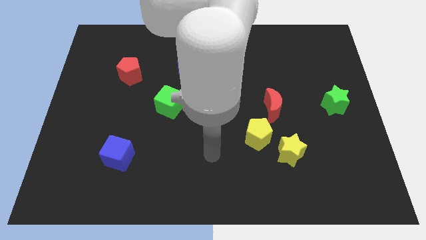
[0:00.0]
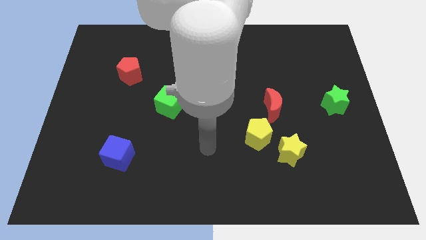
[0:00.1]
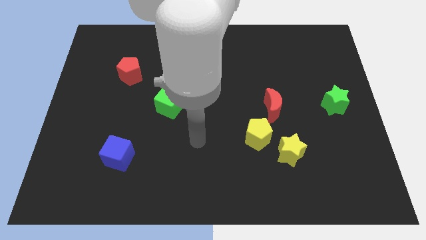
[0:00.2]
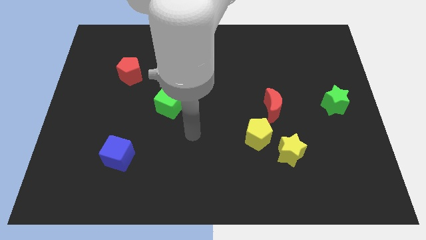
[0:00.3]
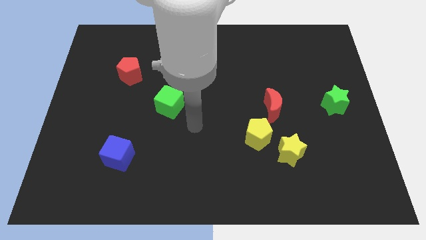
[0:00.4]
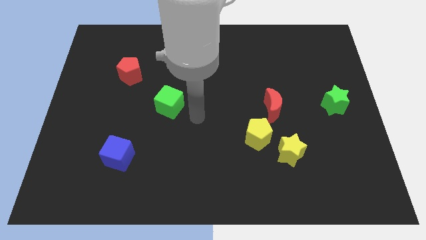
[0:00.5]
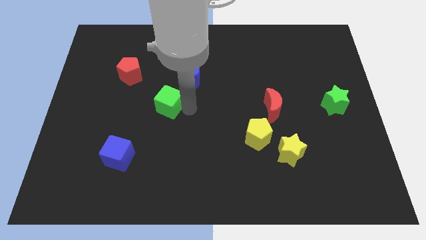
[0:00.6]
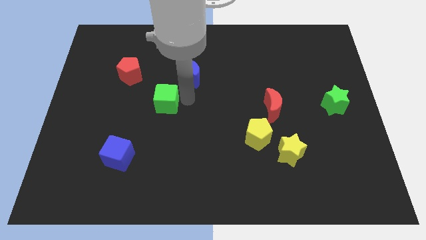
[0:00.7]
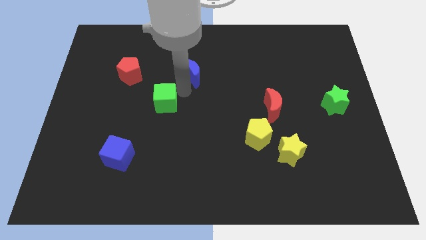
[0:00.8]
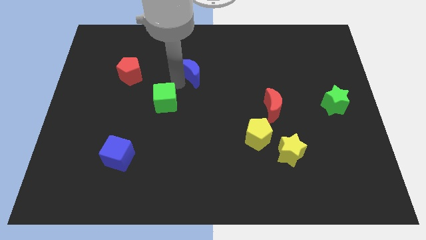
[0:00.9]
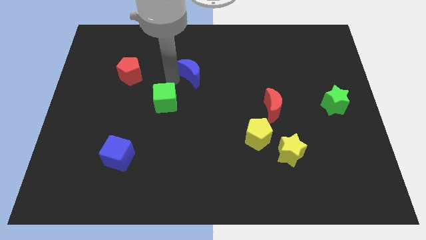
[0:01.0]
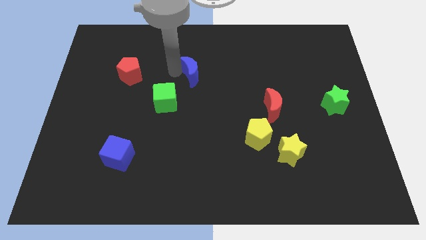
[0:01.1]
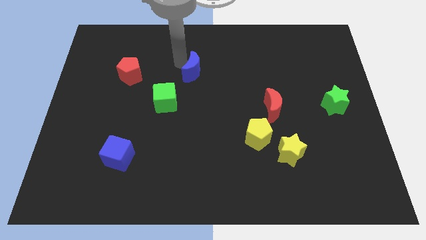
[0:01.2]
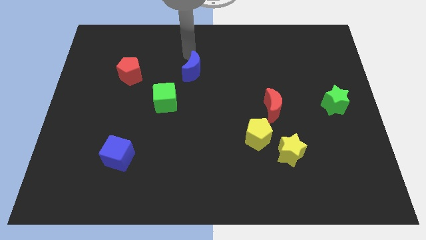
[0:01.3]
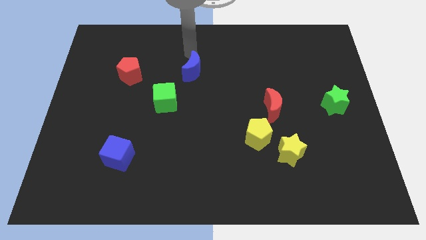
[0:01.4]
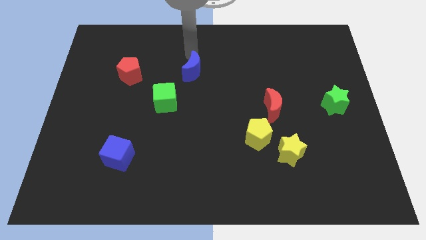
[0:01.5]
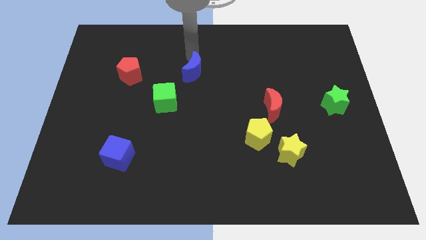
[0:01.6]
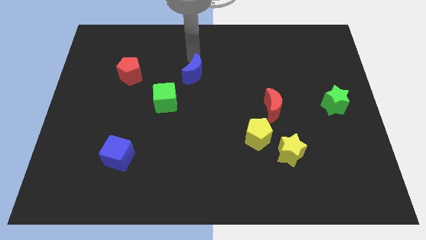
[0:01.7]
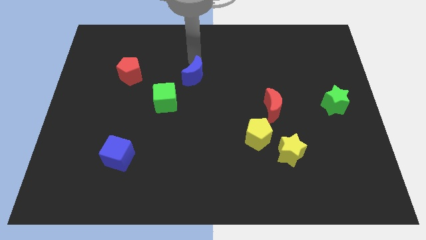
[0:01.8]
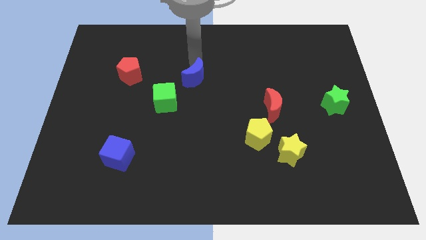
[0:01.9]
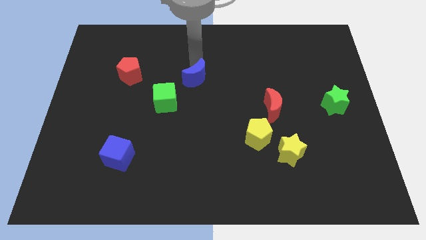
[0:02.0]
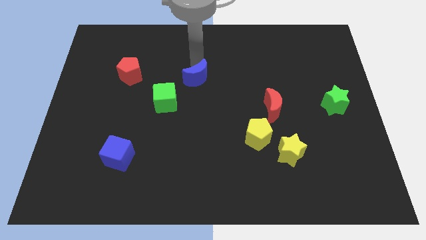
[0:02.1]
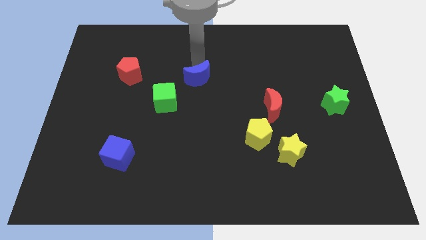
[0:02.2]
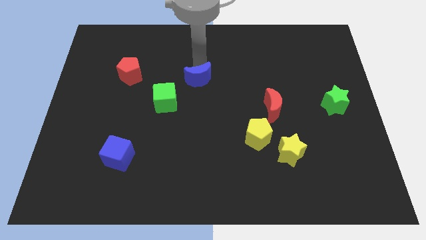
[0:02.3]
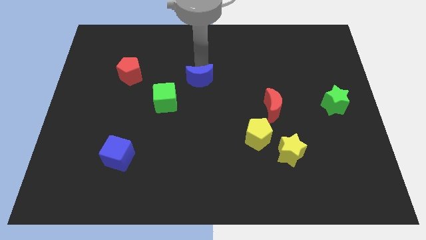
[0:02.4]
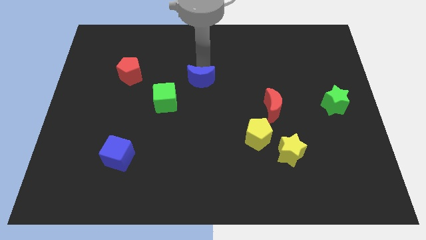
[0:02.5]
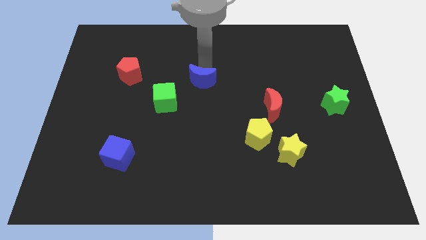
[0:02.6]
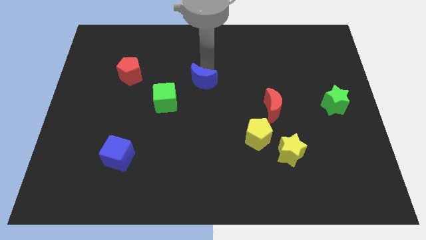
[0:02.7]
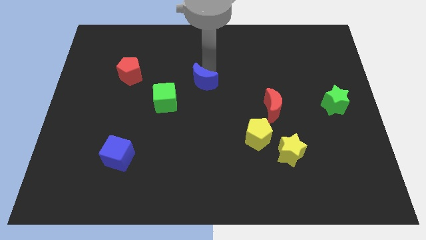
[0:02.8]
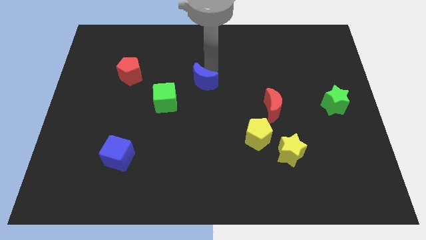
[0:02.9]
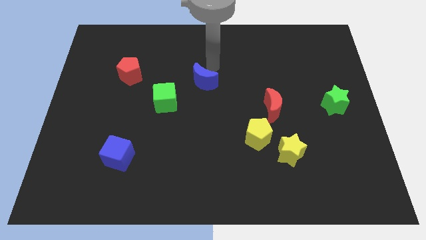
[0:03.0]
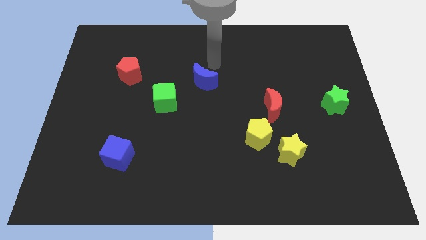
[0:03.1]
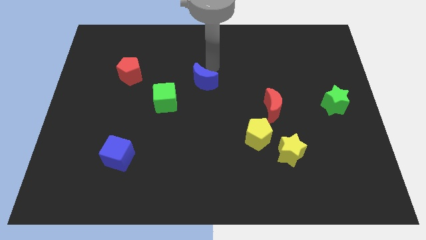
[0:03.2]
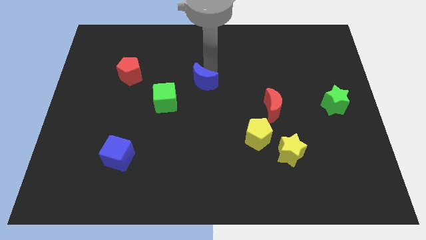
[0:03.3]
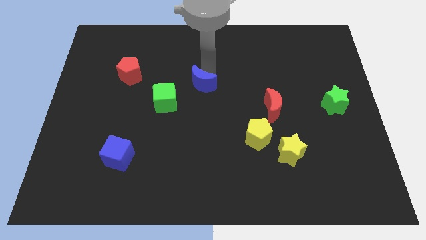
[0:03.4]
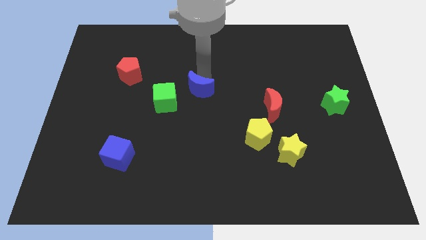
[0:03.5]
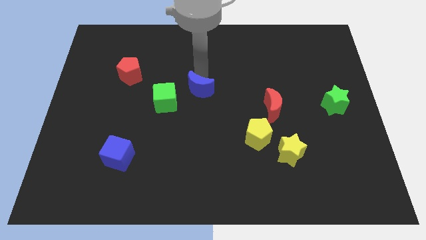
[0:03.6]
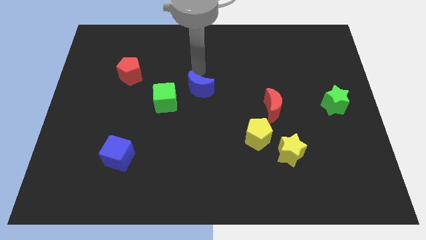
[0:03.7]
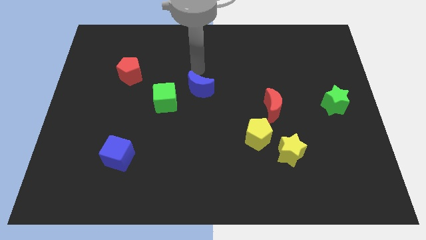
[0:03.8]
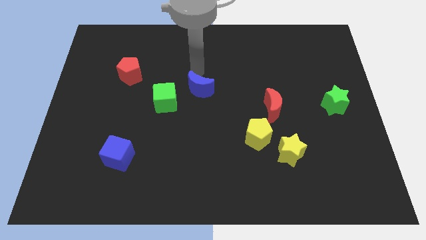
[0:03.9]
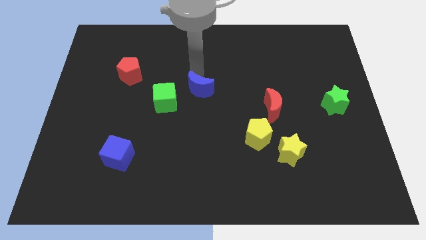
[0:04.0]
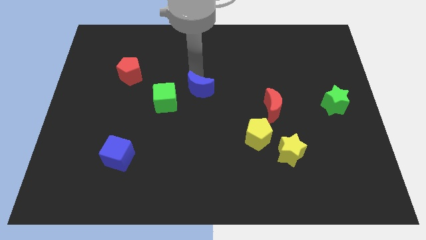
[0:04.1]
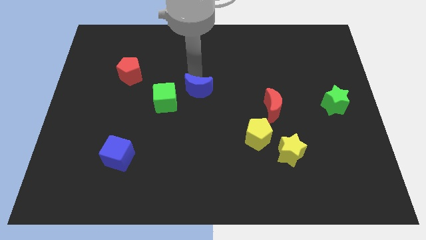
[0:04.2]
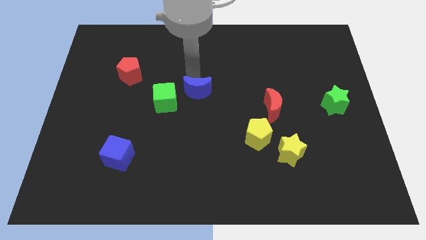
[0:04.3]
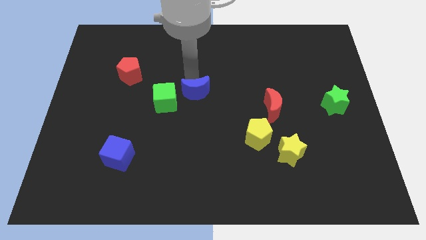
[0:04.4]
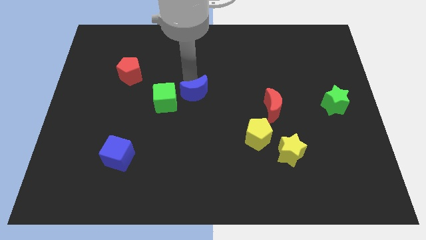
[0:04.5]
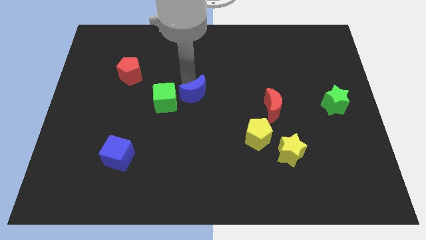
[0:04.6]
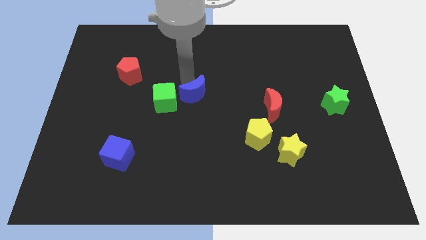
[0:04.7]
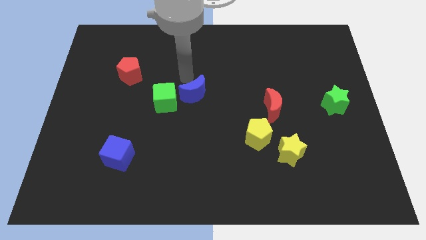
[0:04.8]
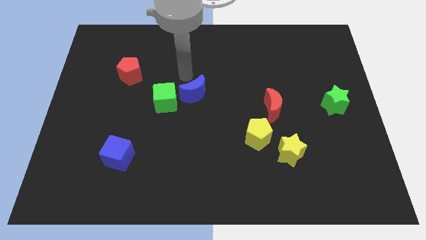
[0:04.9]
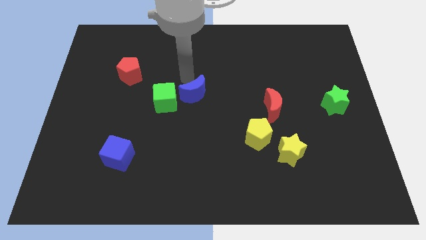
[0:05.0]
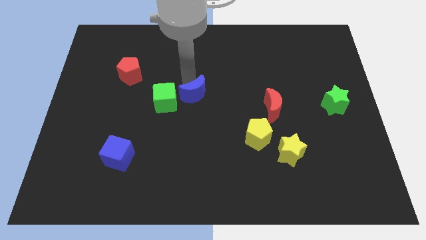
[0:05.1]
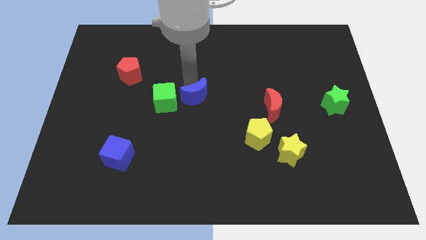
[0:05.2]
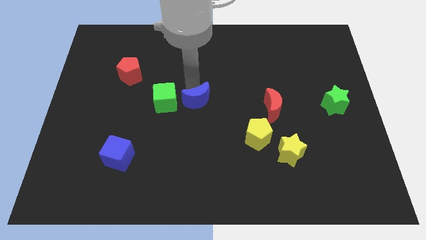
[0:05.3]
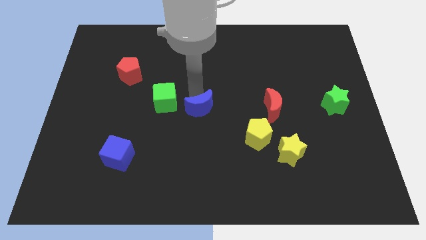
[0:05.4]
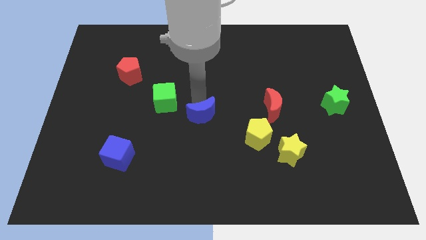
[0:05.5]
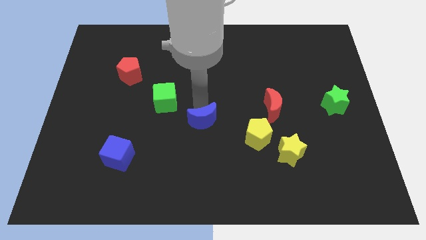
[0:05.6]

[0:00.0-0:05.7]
put the blue moon to the left side of the yellow pentagon

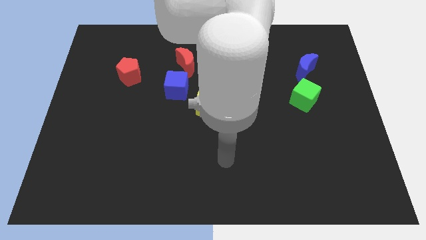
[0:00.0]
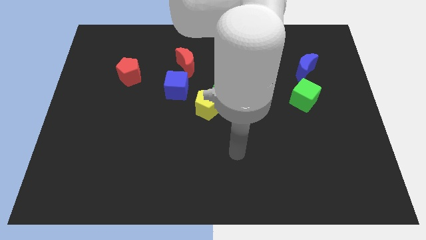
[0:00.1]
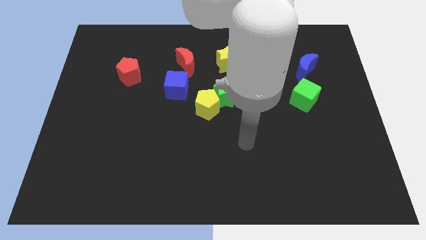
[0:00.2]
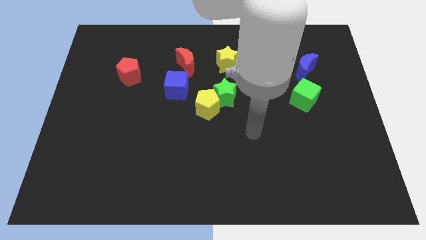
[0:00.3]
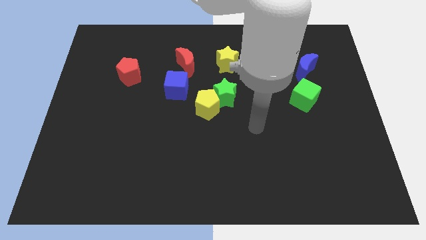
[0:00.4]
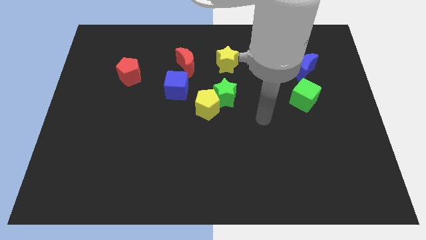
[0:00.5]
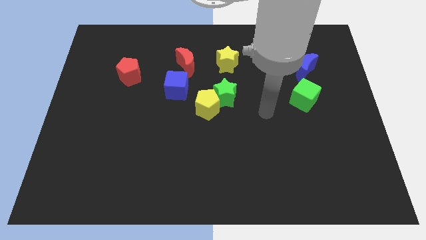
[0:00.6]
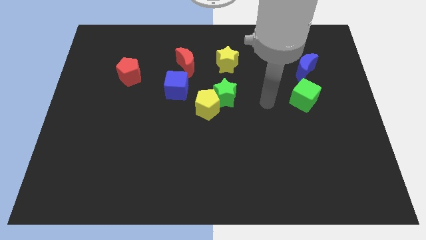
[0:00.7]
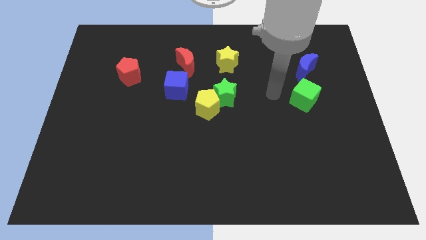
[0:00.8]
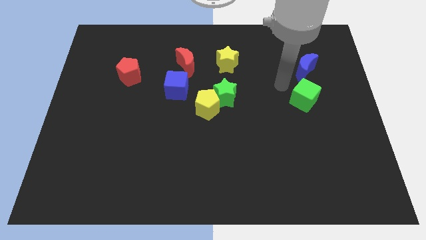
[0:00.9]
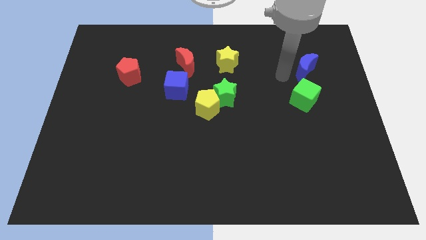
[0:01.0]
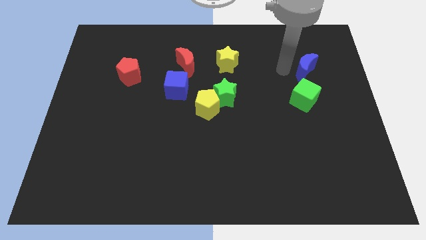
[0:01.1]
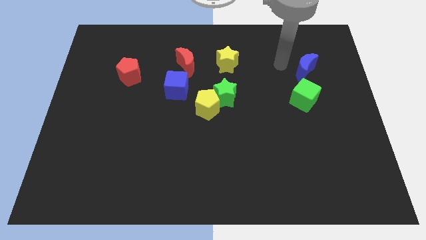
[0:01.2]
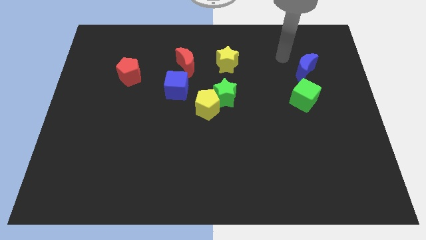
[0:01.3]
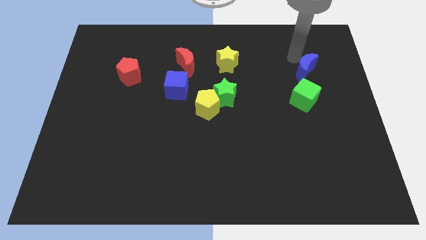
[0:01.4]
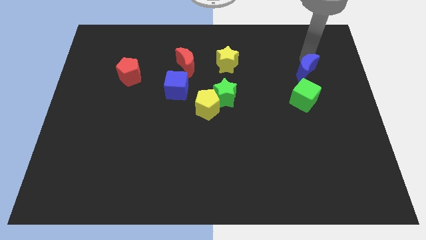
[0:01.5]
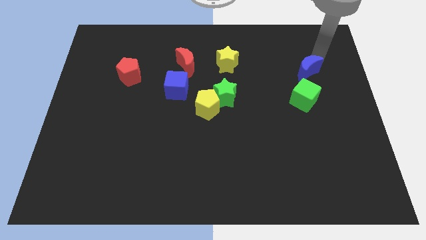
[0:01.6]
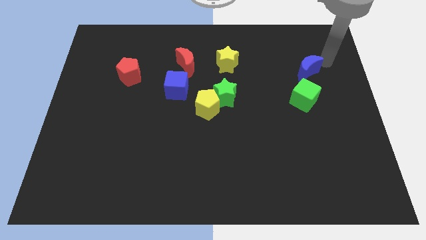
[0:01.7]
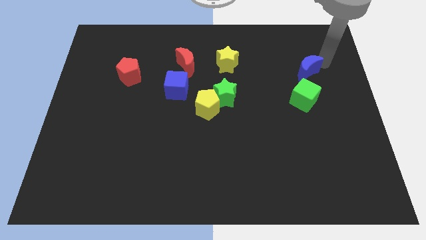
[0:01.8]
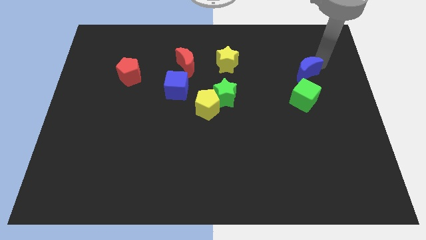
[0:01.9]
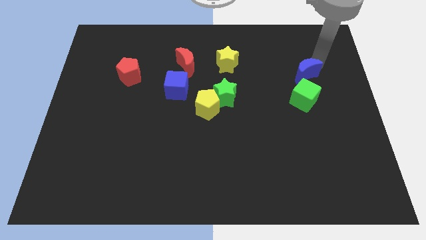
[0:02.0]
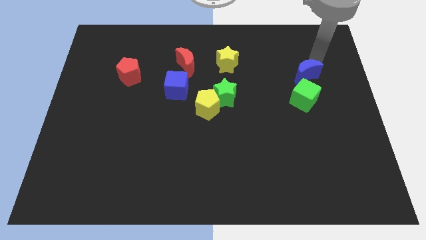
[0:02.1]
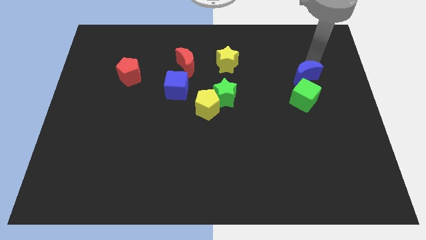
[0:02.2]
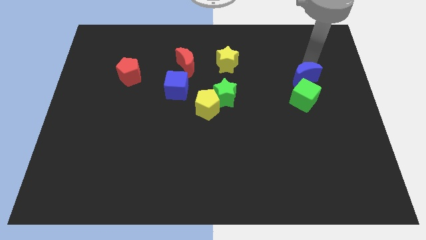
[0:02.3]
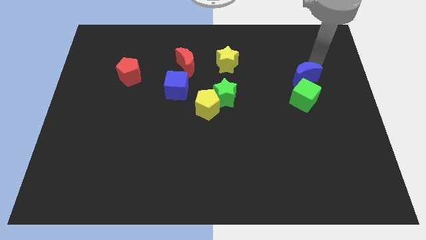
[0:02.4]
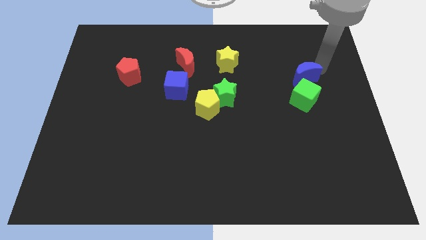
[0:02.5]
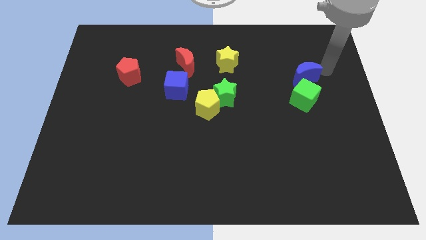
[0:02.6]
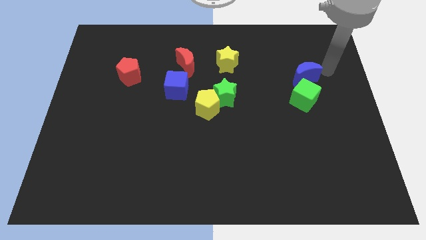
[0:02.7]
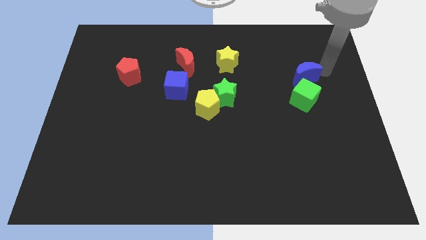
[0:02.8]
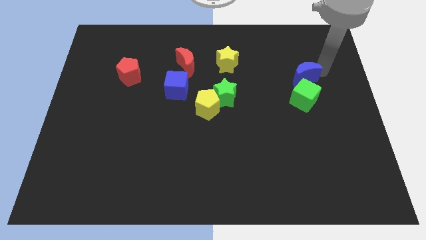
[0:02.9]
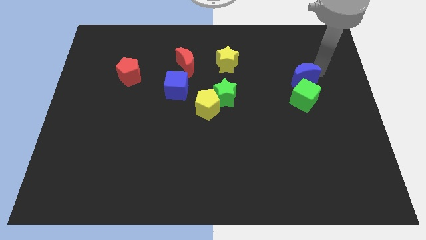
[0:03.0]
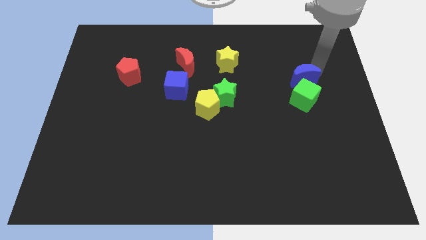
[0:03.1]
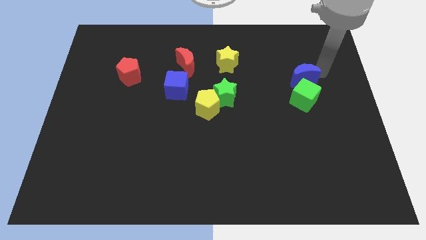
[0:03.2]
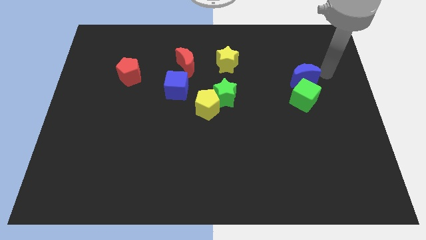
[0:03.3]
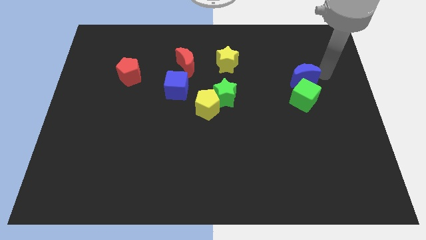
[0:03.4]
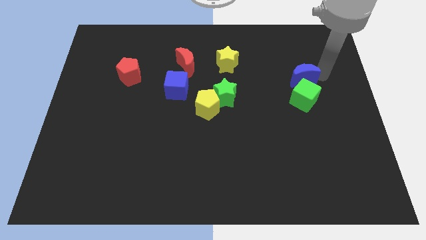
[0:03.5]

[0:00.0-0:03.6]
put the blue moon to the top left side of the green cube
